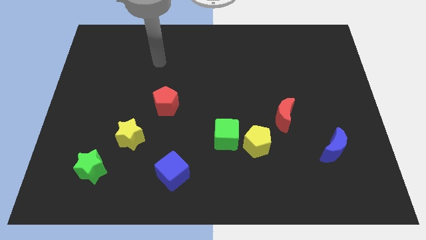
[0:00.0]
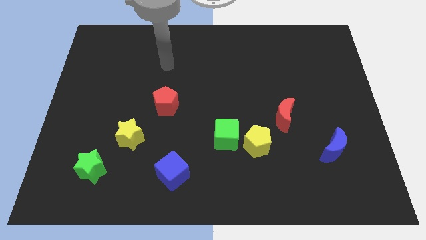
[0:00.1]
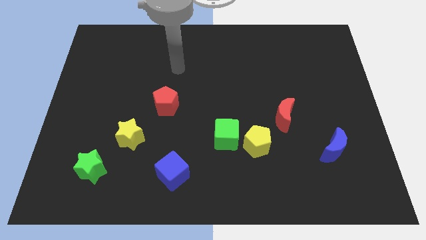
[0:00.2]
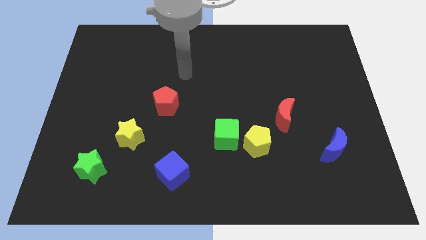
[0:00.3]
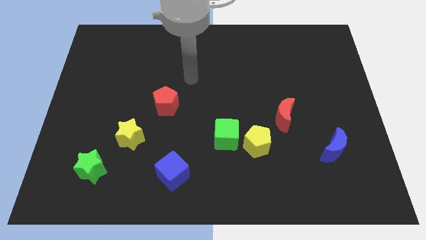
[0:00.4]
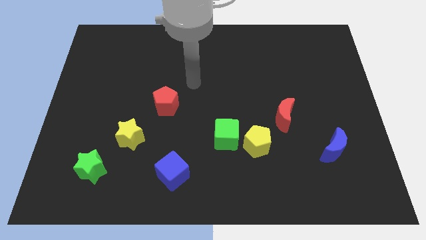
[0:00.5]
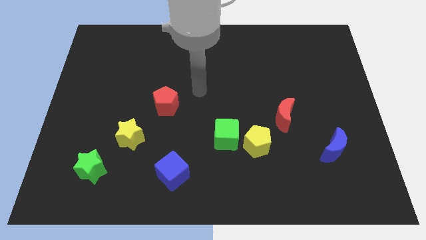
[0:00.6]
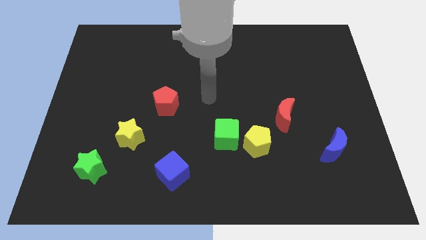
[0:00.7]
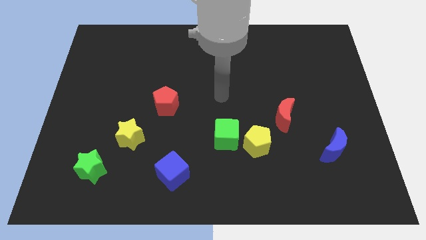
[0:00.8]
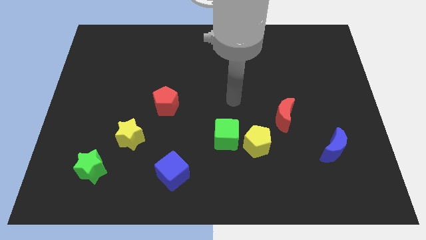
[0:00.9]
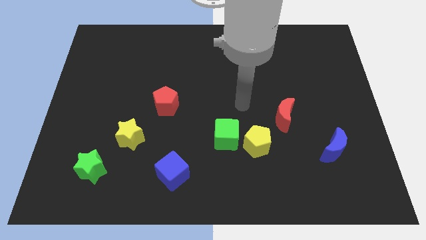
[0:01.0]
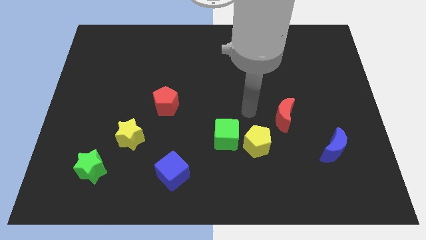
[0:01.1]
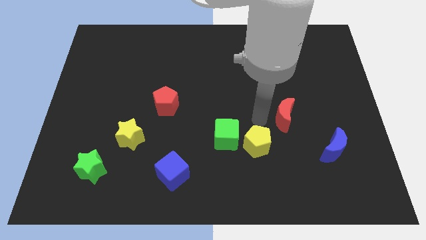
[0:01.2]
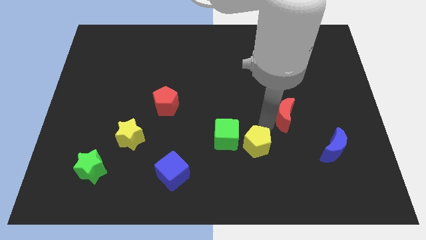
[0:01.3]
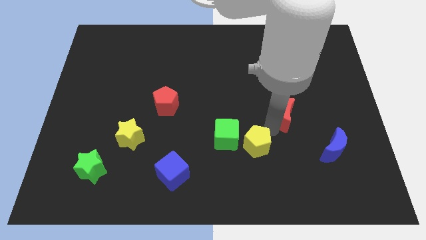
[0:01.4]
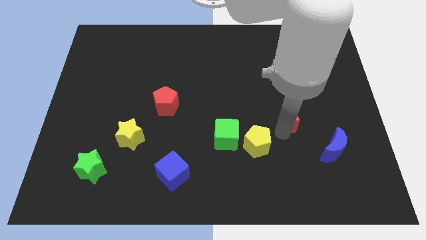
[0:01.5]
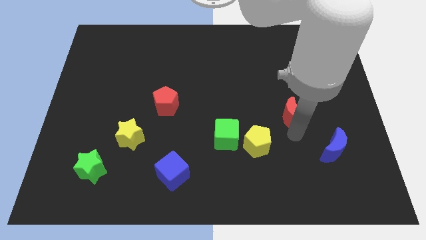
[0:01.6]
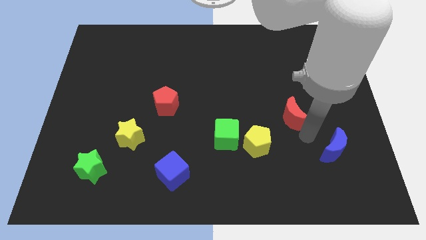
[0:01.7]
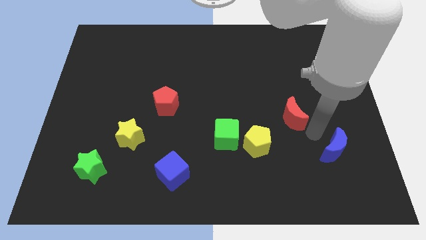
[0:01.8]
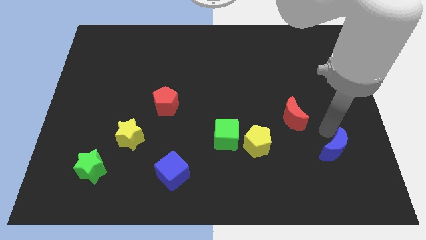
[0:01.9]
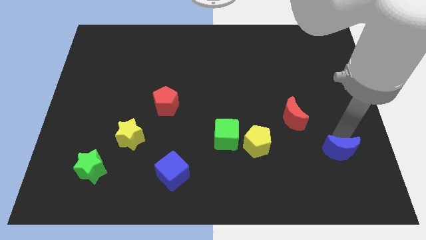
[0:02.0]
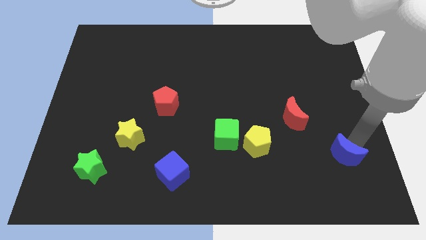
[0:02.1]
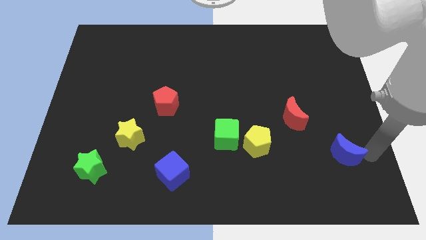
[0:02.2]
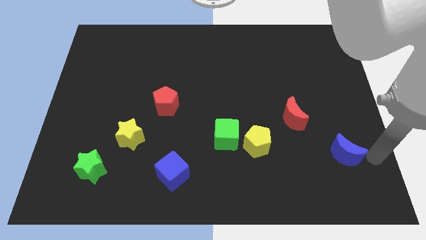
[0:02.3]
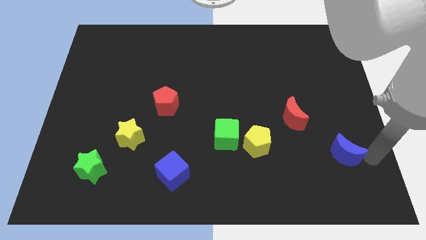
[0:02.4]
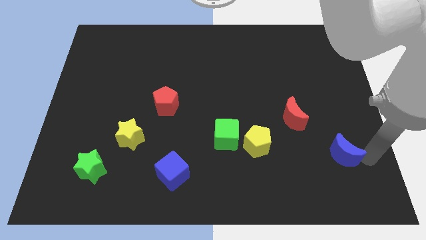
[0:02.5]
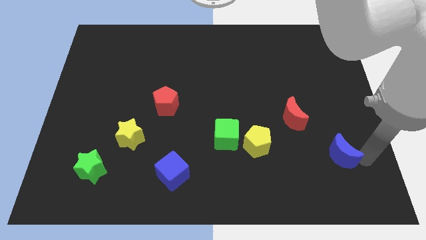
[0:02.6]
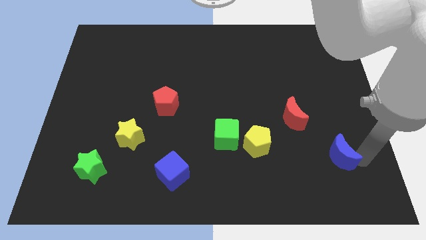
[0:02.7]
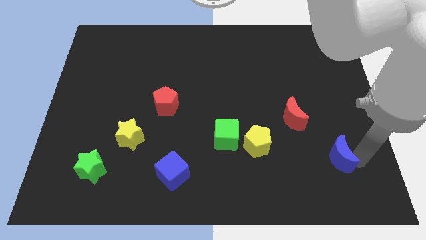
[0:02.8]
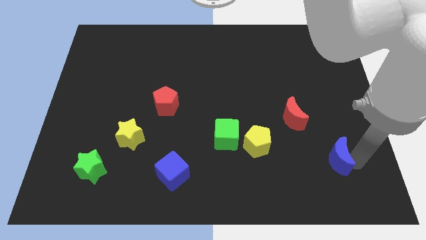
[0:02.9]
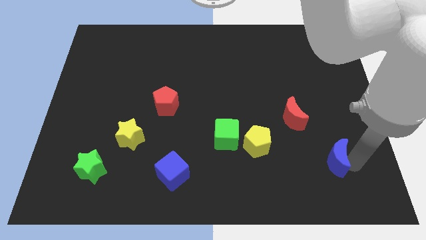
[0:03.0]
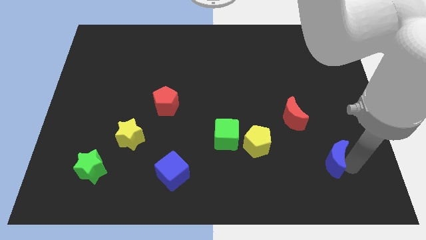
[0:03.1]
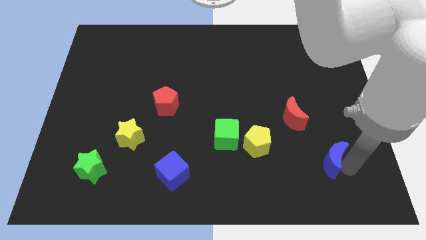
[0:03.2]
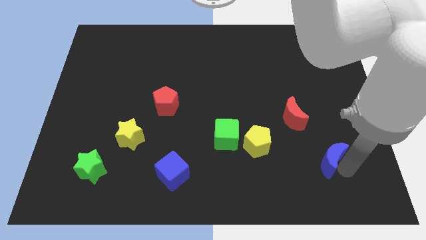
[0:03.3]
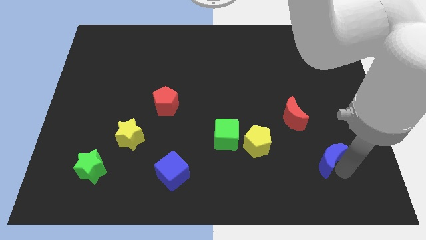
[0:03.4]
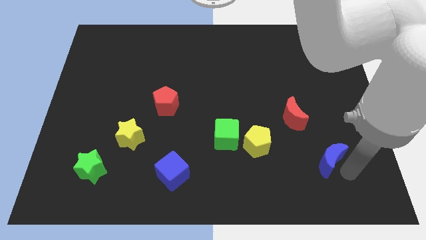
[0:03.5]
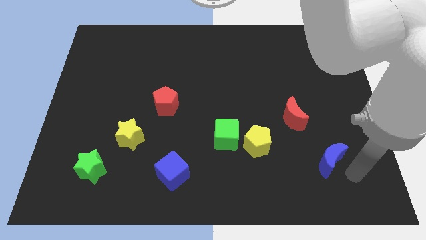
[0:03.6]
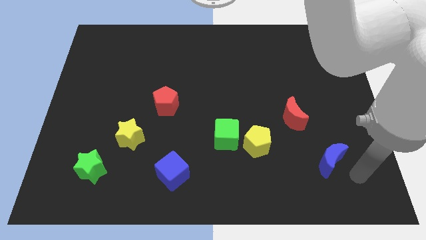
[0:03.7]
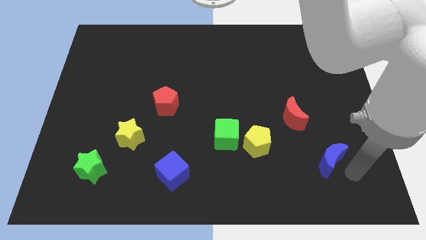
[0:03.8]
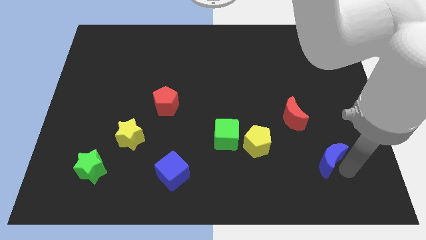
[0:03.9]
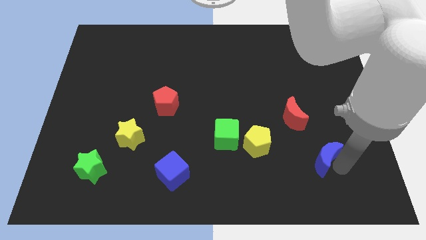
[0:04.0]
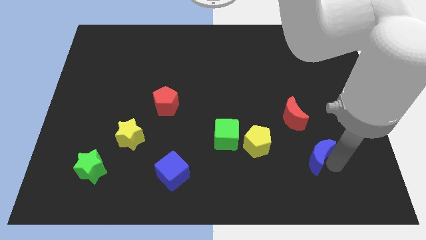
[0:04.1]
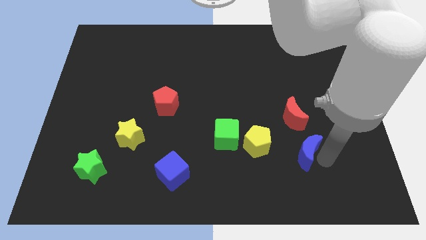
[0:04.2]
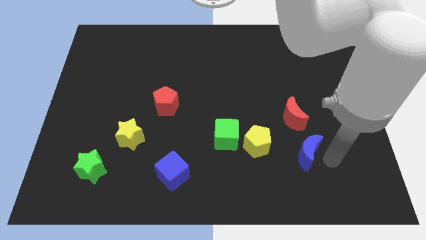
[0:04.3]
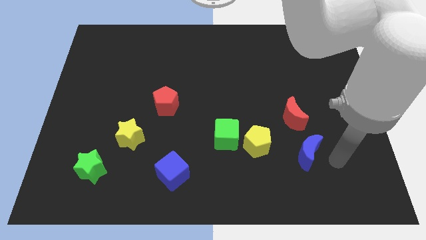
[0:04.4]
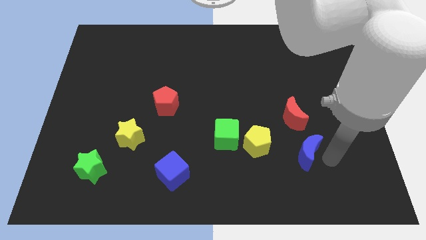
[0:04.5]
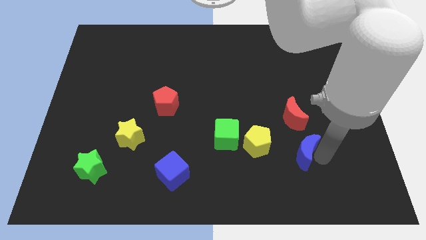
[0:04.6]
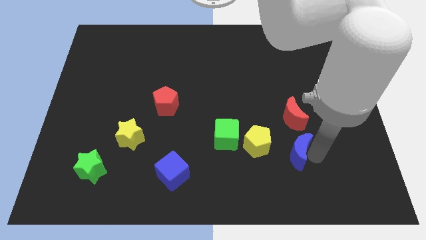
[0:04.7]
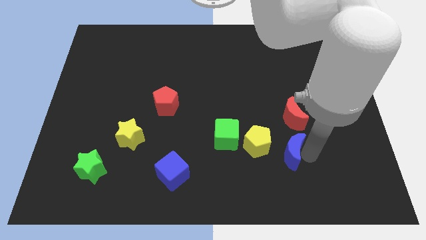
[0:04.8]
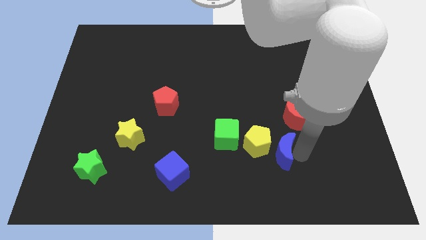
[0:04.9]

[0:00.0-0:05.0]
put the blue moon towards the yellow pentagon

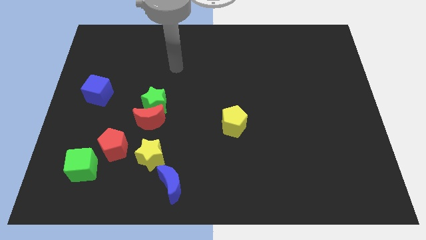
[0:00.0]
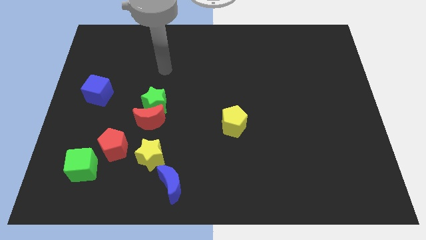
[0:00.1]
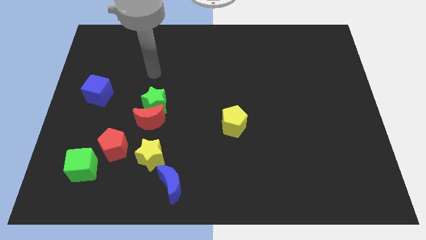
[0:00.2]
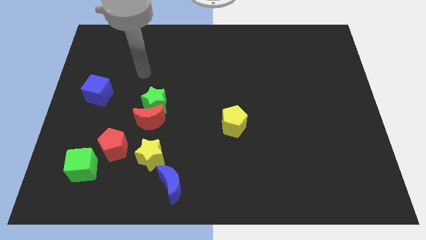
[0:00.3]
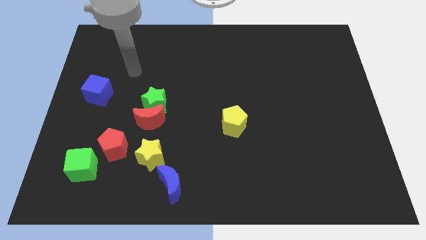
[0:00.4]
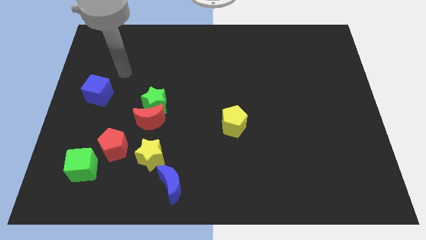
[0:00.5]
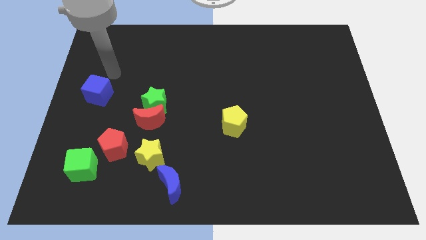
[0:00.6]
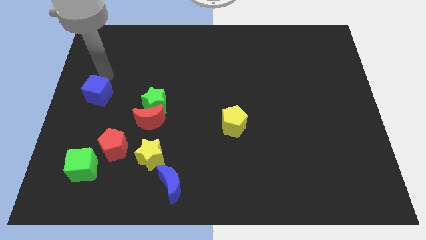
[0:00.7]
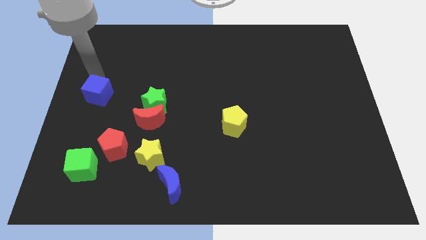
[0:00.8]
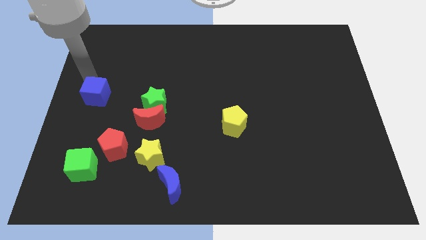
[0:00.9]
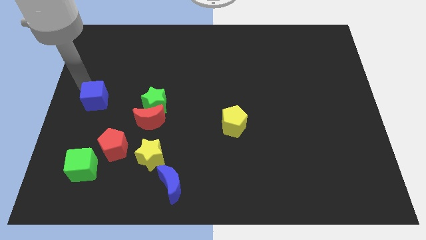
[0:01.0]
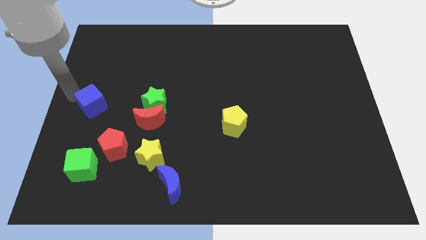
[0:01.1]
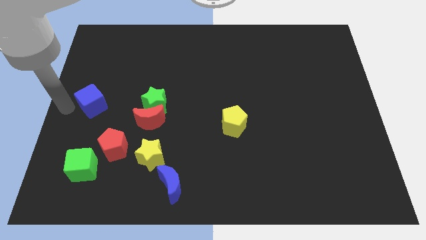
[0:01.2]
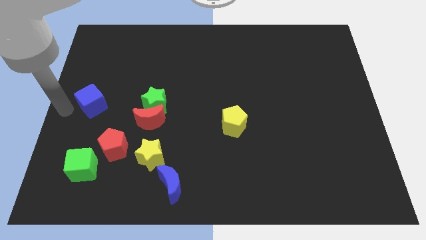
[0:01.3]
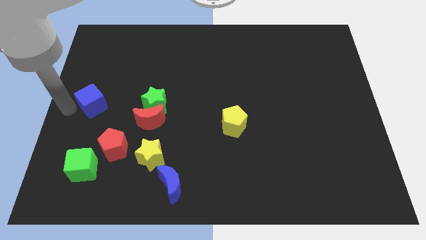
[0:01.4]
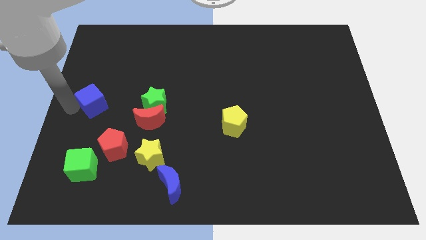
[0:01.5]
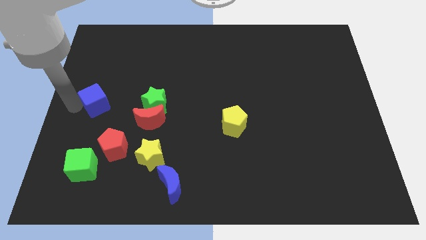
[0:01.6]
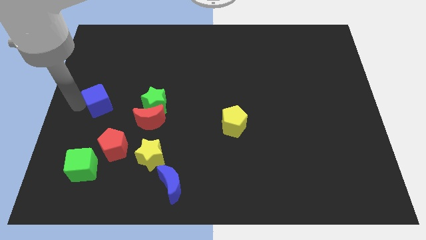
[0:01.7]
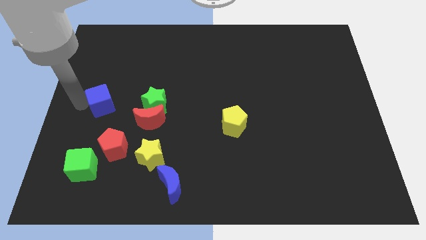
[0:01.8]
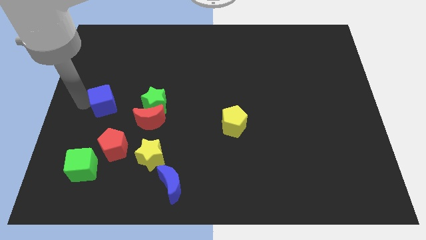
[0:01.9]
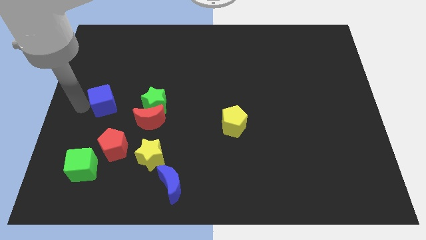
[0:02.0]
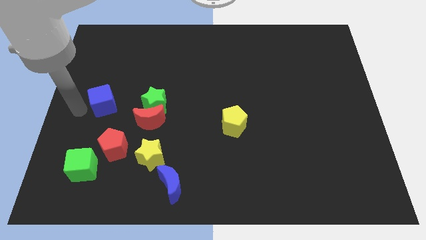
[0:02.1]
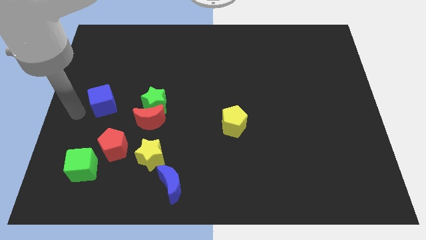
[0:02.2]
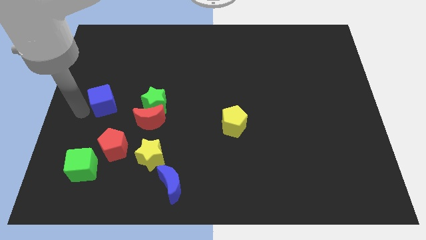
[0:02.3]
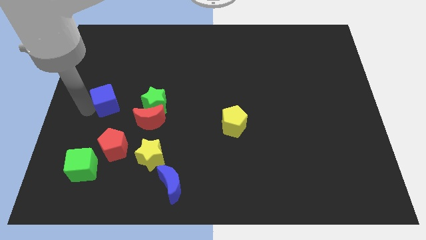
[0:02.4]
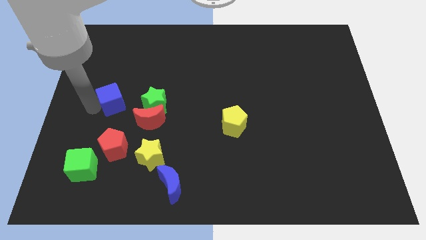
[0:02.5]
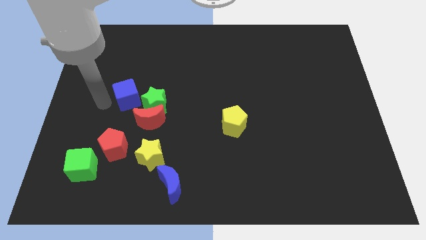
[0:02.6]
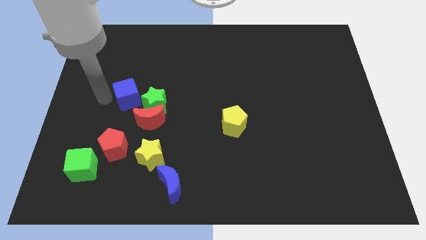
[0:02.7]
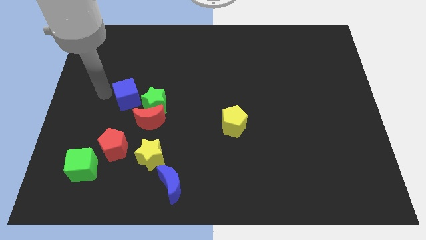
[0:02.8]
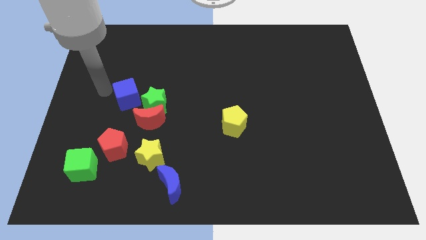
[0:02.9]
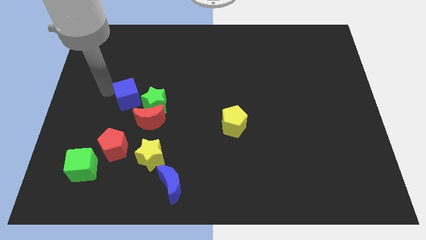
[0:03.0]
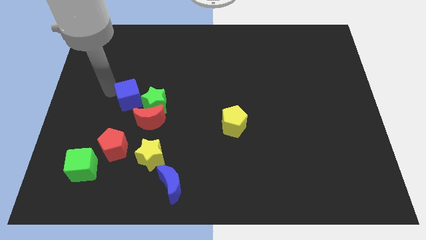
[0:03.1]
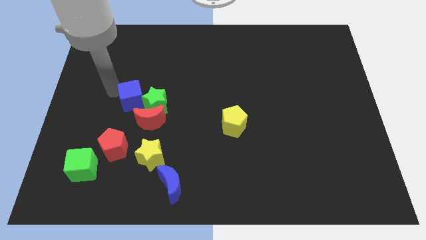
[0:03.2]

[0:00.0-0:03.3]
push the blue cube next to the green star
